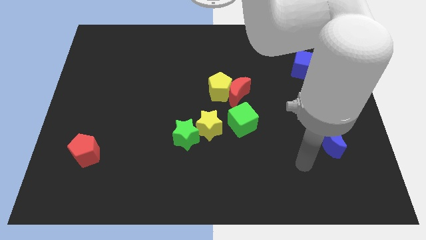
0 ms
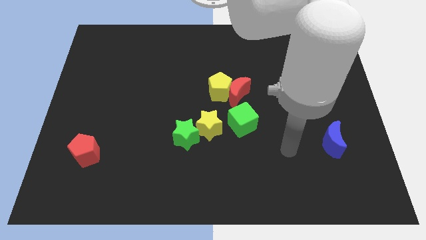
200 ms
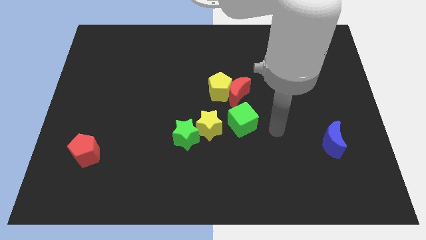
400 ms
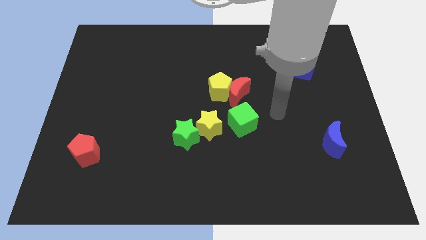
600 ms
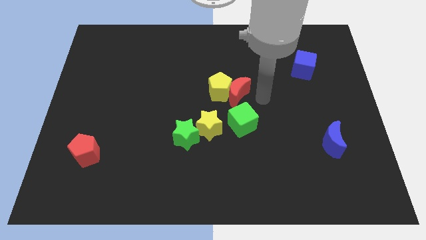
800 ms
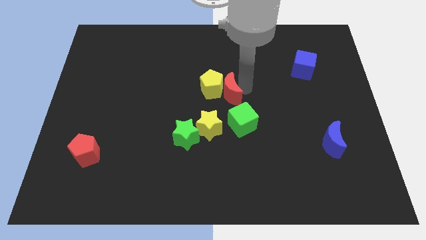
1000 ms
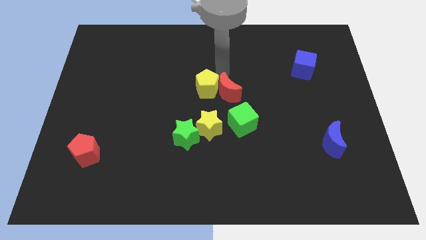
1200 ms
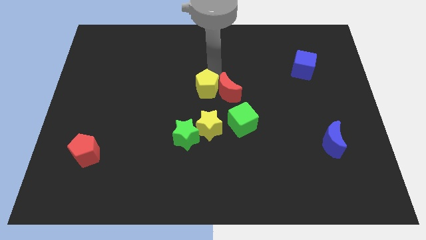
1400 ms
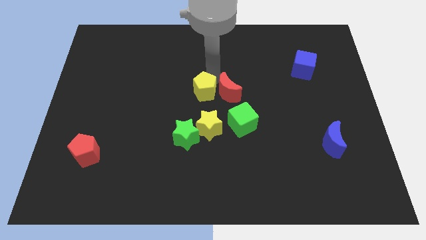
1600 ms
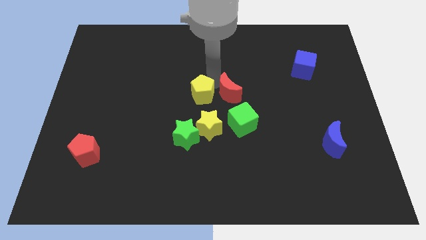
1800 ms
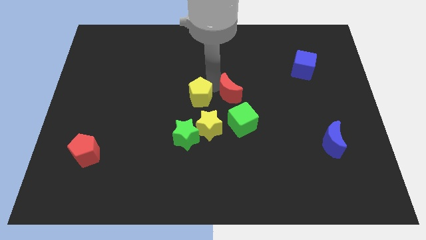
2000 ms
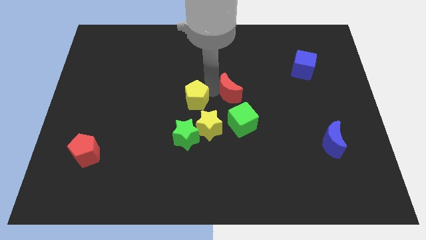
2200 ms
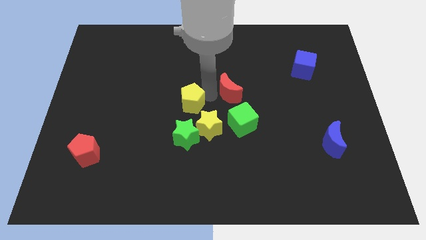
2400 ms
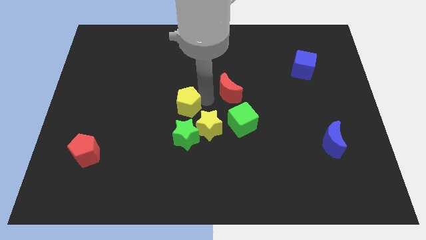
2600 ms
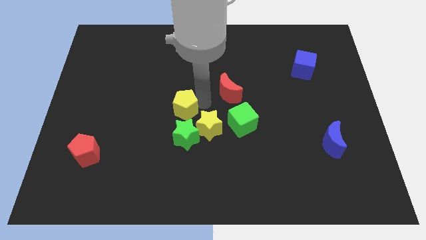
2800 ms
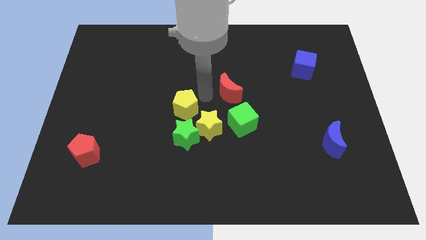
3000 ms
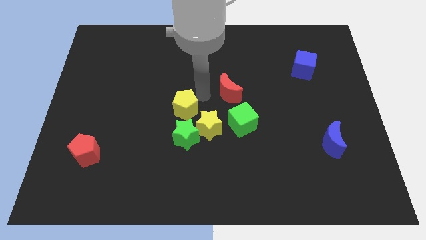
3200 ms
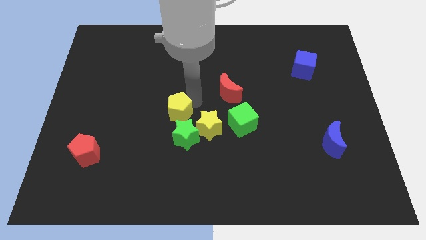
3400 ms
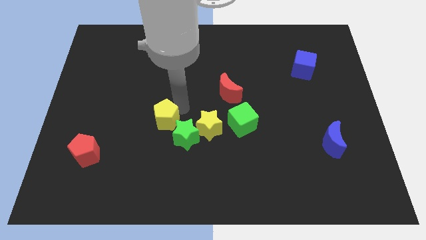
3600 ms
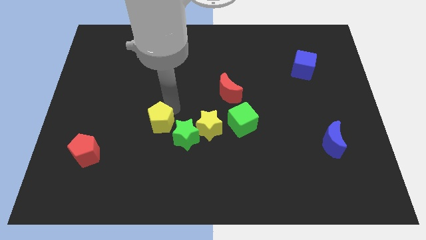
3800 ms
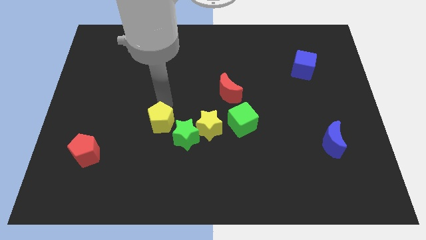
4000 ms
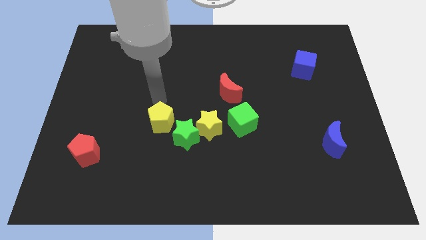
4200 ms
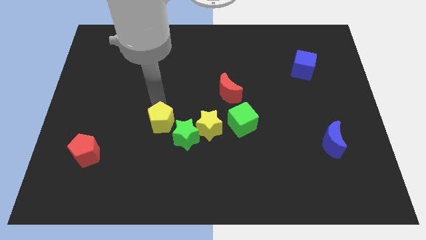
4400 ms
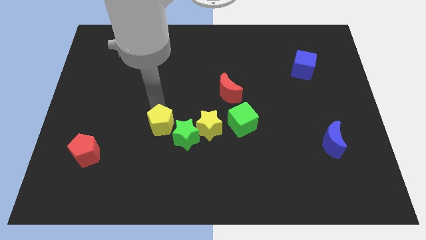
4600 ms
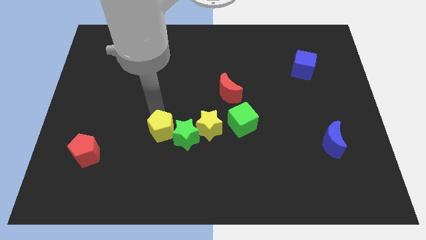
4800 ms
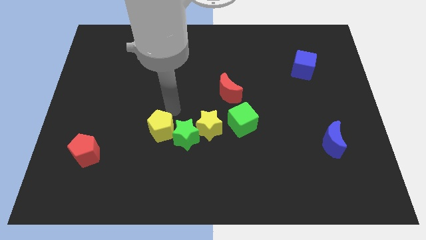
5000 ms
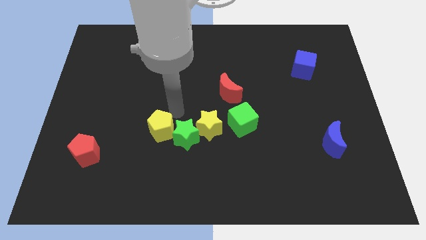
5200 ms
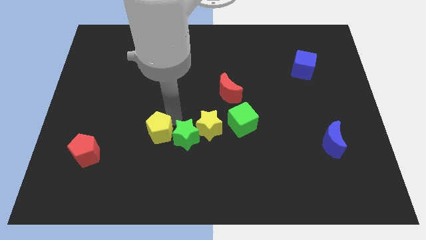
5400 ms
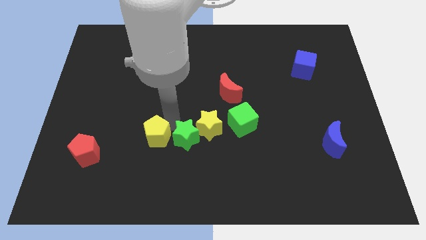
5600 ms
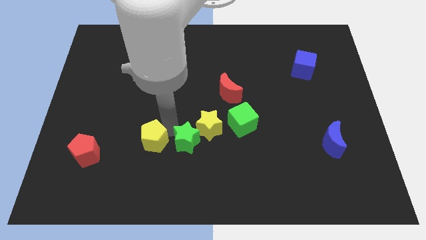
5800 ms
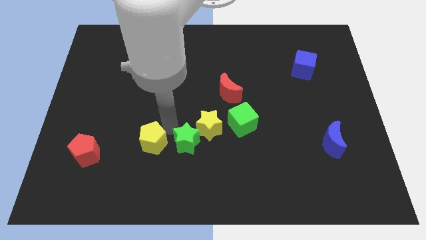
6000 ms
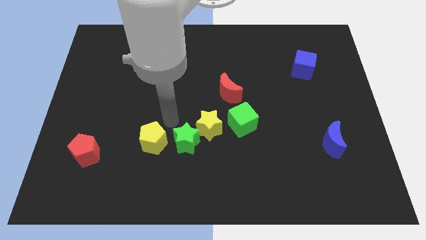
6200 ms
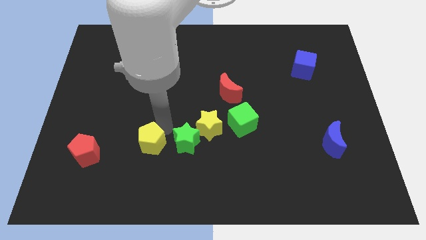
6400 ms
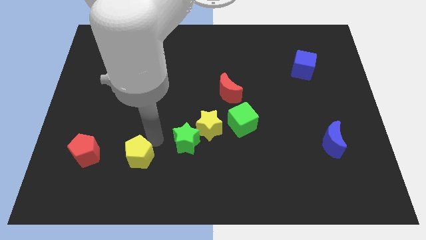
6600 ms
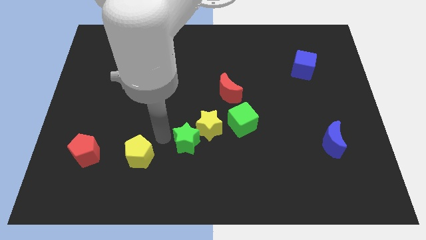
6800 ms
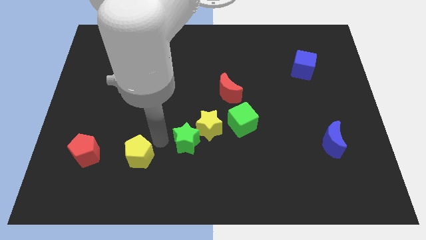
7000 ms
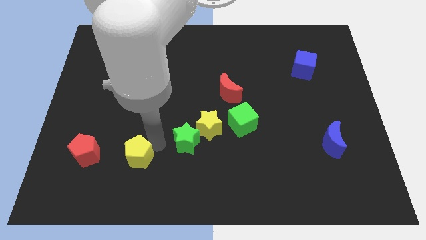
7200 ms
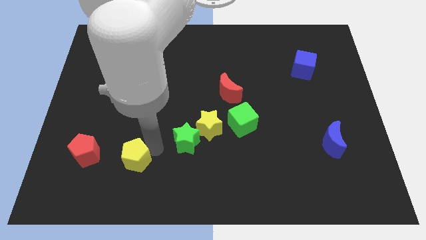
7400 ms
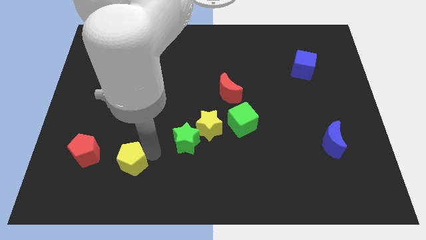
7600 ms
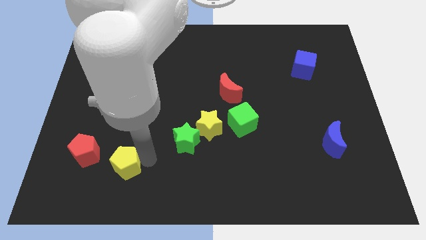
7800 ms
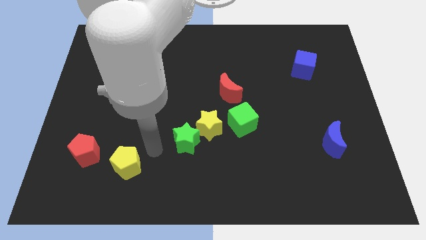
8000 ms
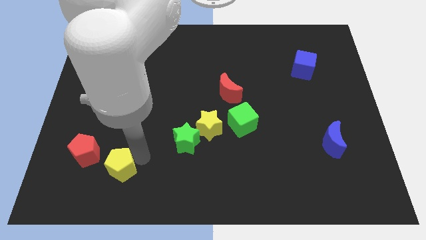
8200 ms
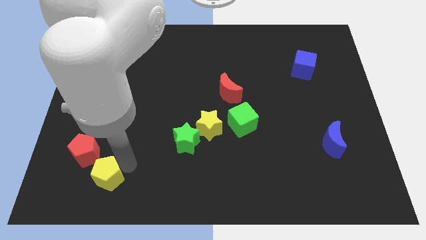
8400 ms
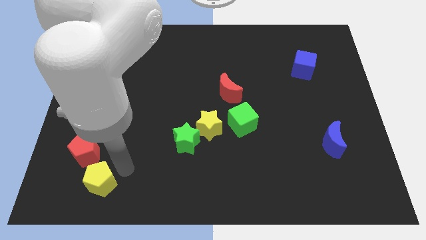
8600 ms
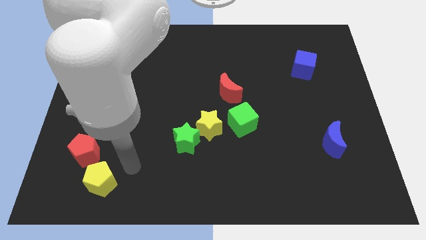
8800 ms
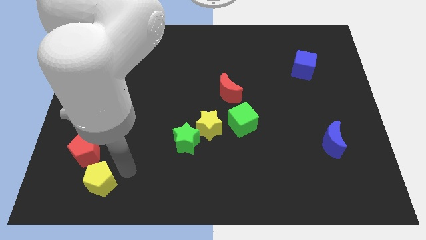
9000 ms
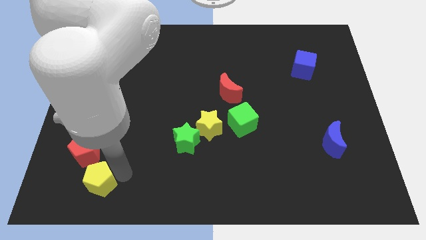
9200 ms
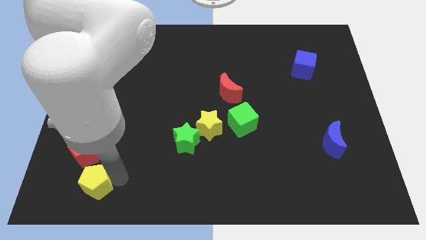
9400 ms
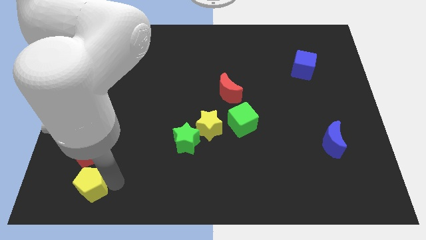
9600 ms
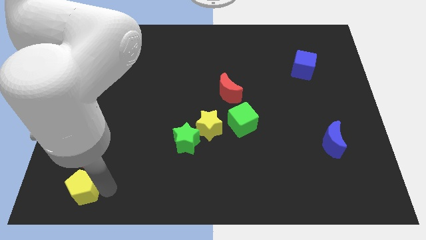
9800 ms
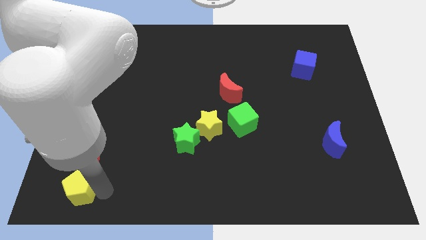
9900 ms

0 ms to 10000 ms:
put the yellow pentagon to the bottom left

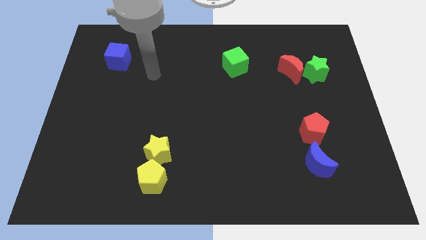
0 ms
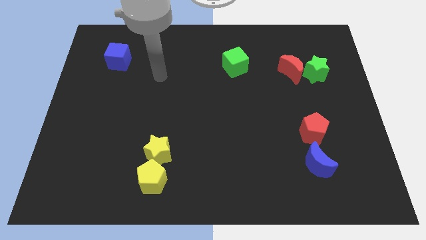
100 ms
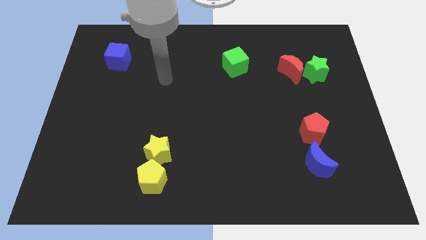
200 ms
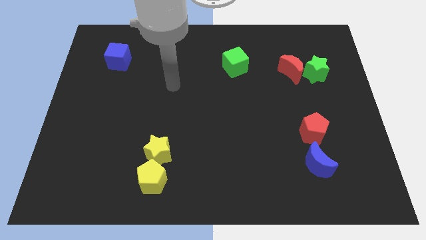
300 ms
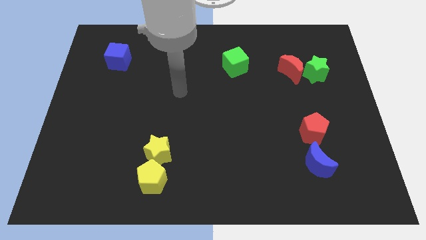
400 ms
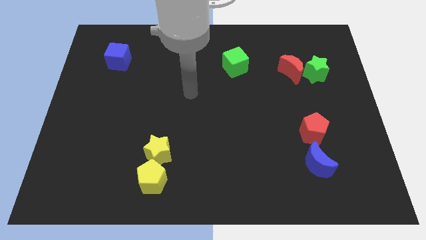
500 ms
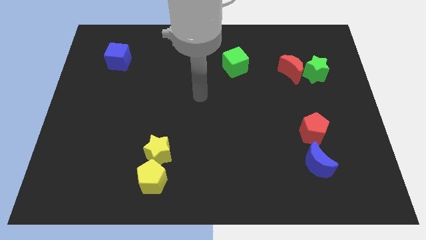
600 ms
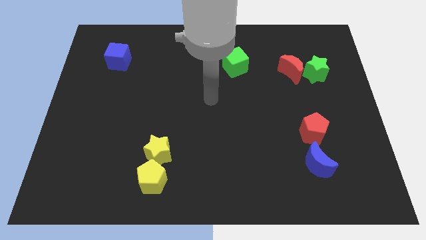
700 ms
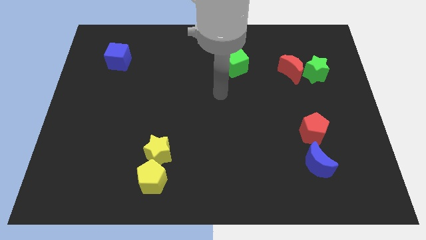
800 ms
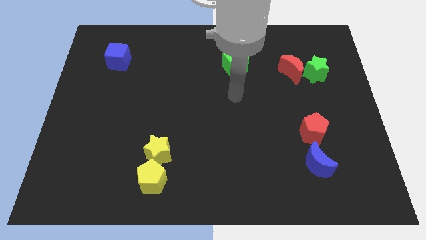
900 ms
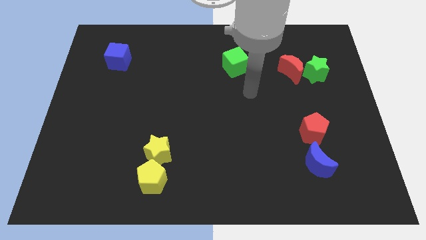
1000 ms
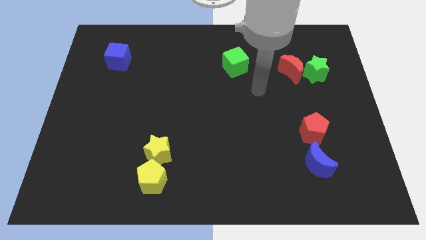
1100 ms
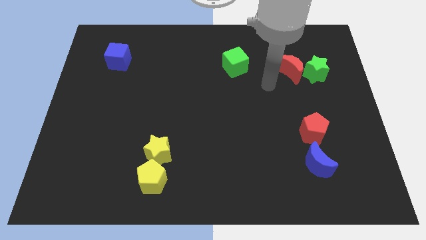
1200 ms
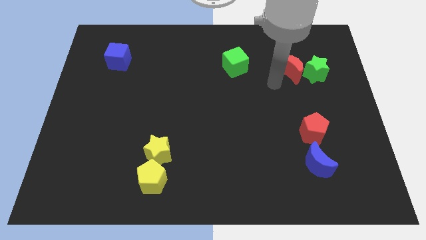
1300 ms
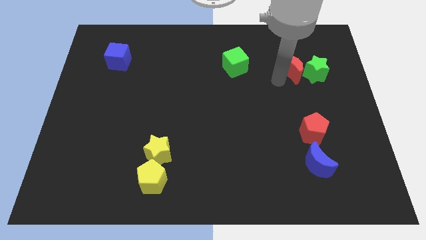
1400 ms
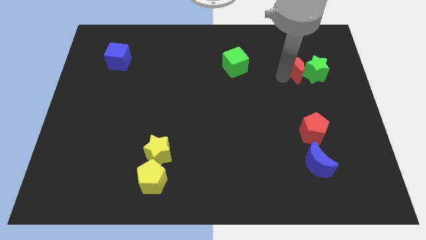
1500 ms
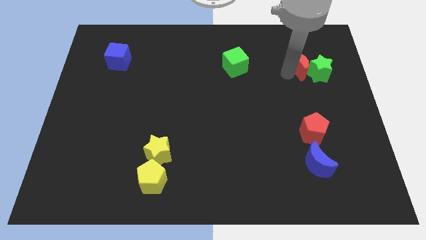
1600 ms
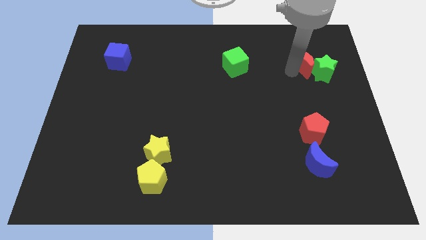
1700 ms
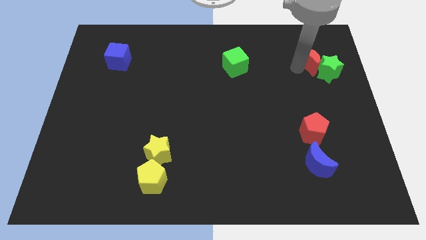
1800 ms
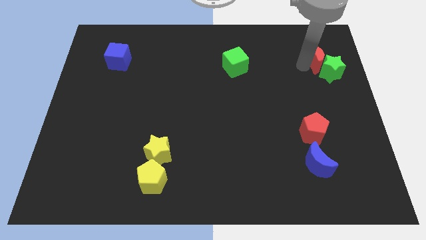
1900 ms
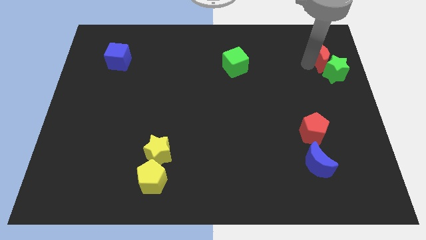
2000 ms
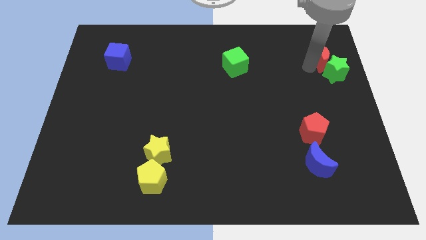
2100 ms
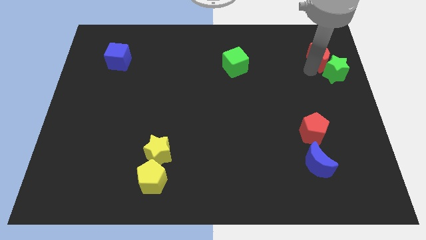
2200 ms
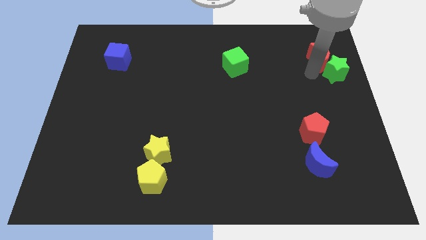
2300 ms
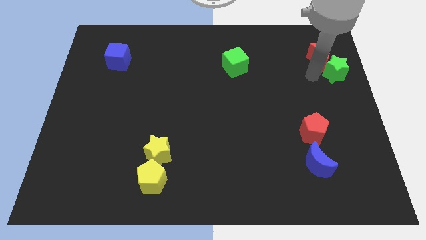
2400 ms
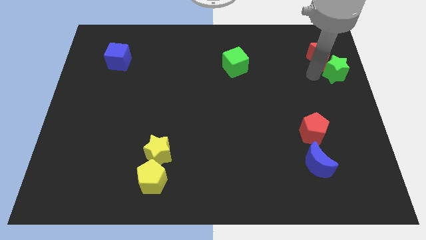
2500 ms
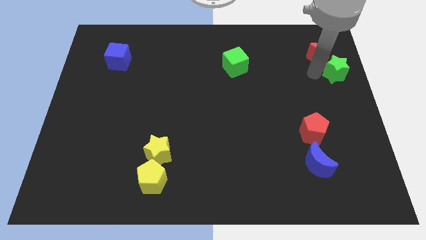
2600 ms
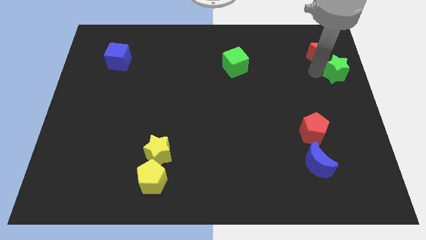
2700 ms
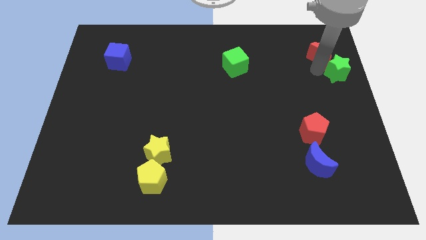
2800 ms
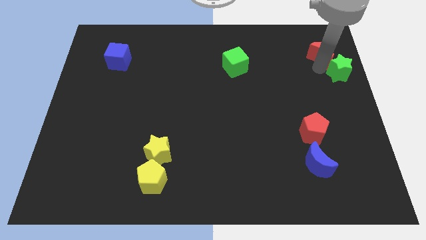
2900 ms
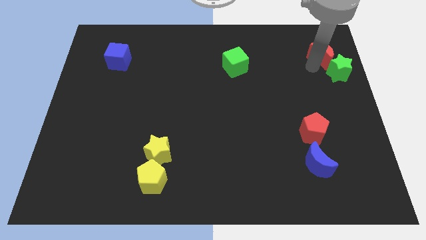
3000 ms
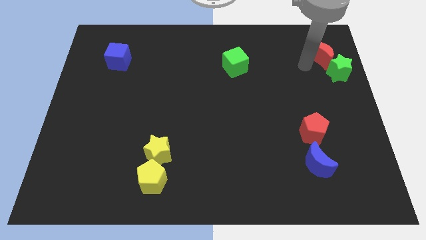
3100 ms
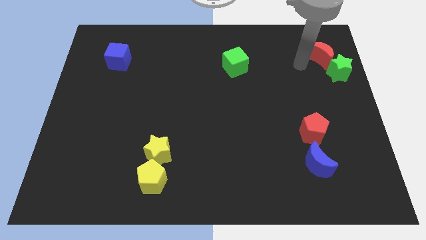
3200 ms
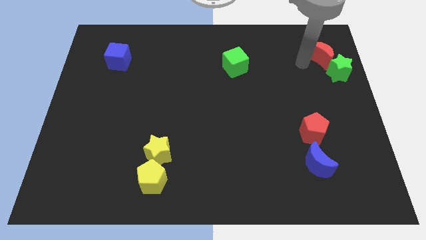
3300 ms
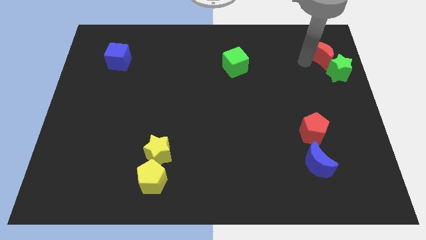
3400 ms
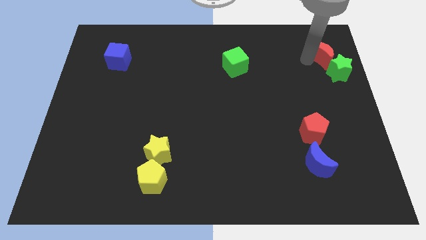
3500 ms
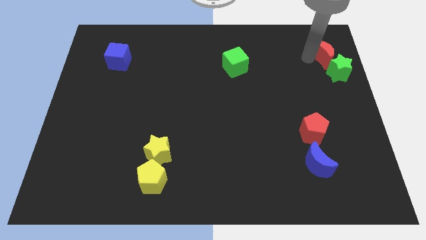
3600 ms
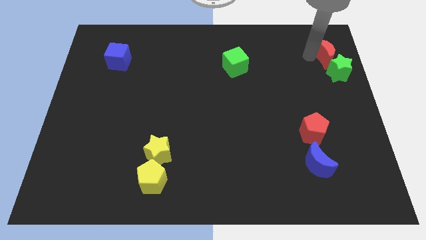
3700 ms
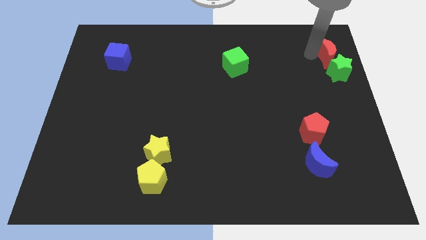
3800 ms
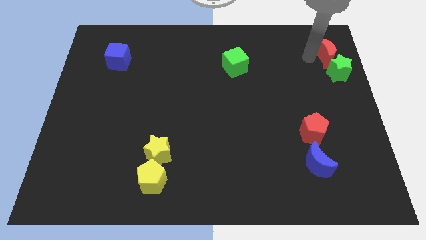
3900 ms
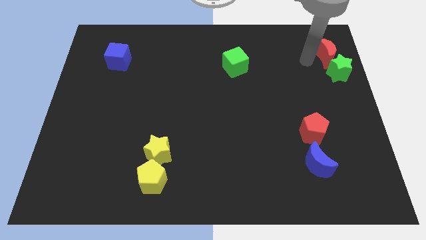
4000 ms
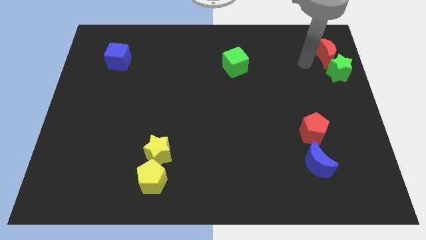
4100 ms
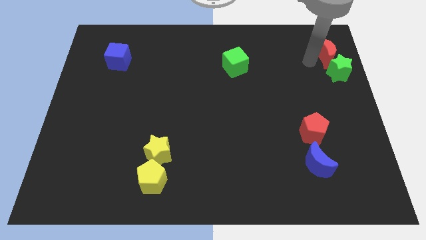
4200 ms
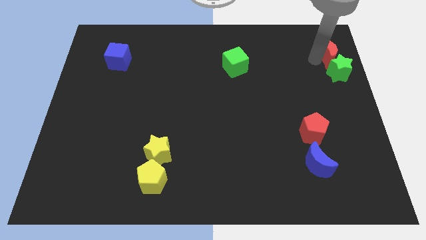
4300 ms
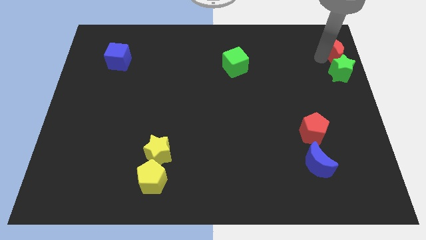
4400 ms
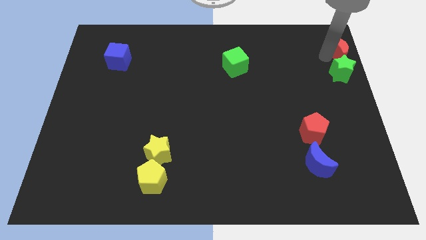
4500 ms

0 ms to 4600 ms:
slide the red moon to the upper right corner
